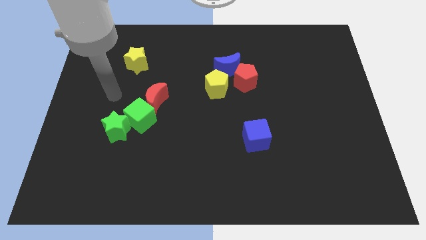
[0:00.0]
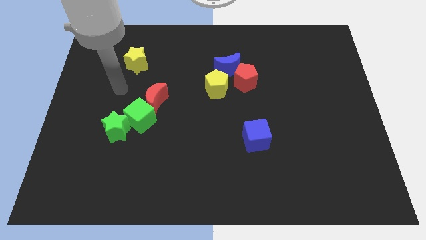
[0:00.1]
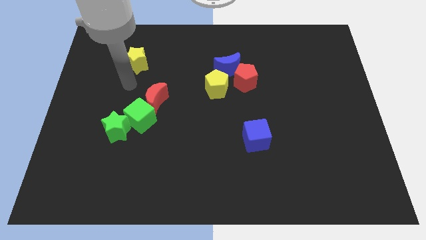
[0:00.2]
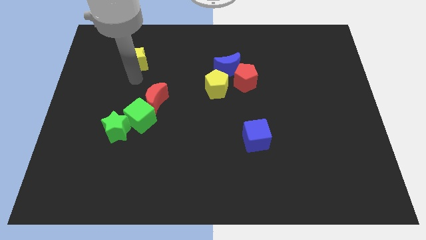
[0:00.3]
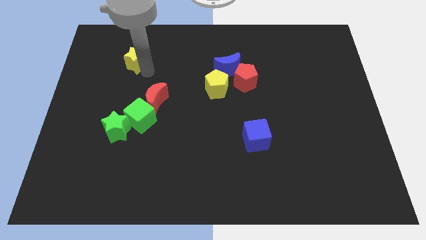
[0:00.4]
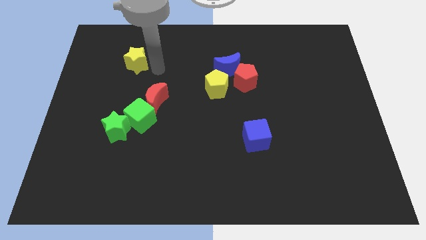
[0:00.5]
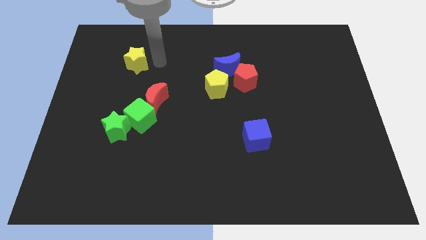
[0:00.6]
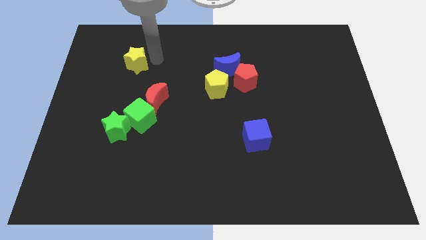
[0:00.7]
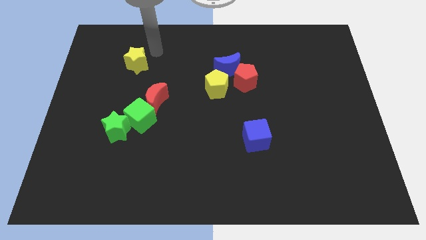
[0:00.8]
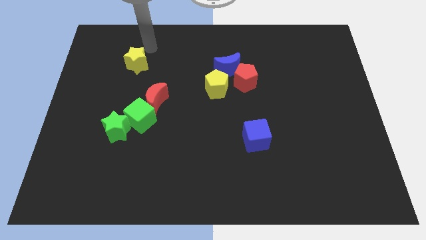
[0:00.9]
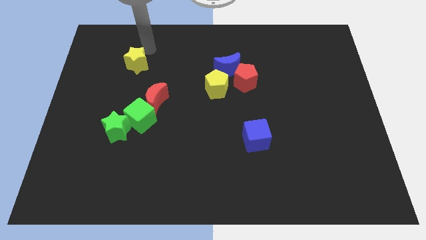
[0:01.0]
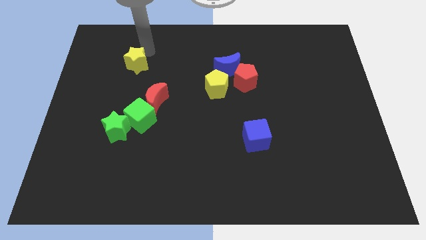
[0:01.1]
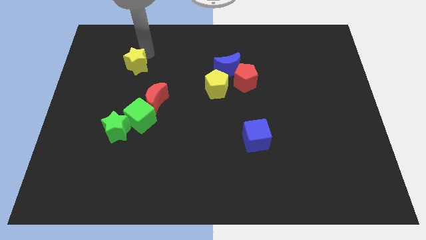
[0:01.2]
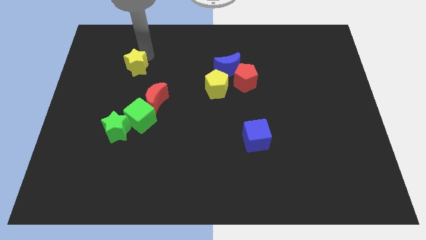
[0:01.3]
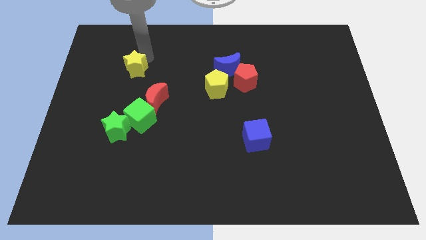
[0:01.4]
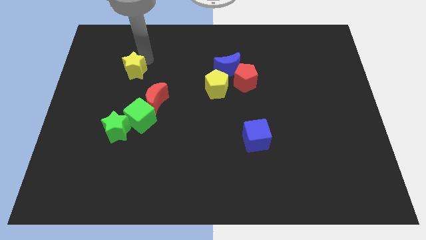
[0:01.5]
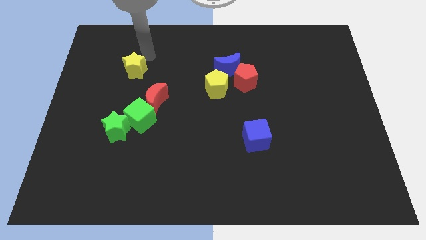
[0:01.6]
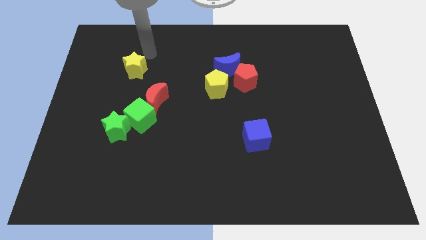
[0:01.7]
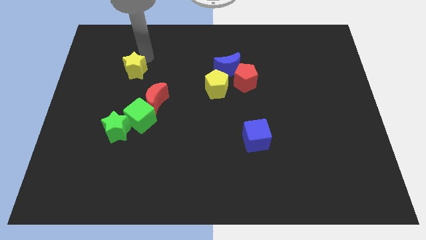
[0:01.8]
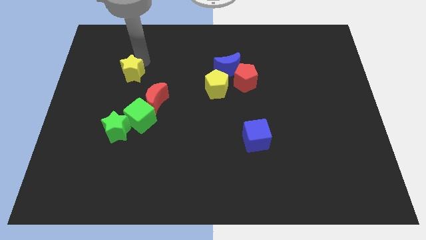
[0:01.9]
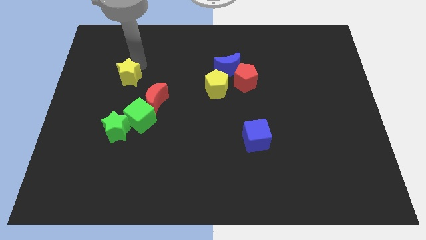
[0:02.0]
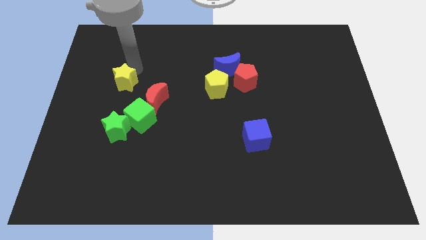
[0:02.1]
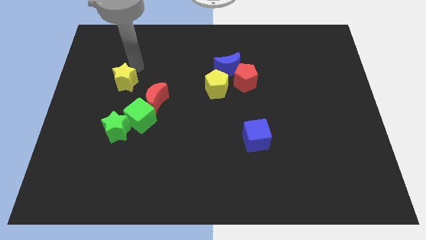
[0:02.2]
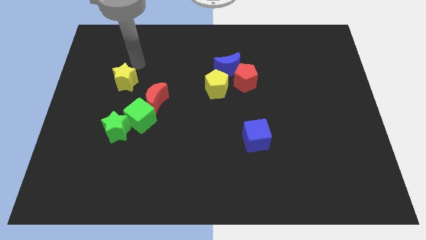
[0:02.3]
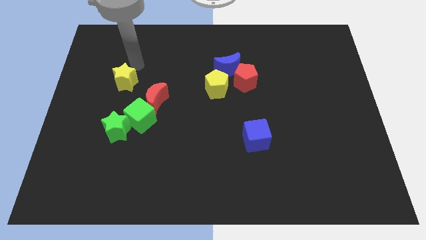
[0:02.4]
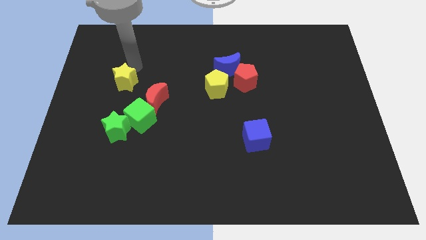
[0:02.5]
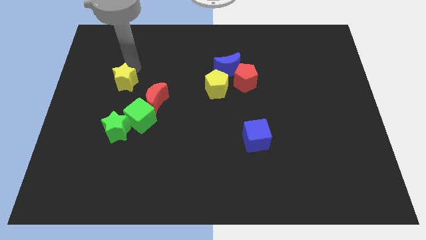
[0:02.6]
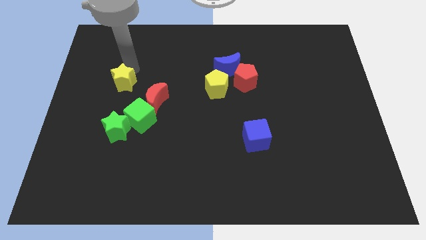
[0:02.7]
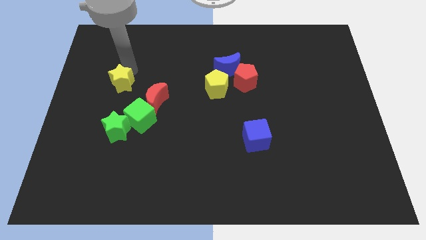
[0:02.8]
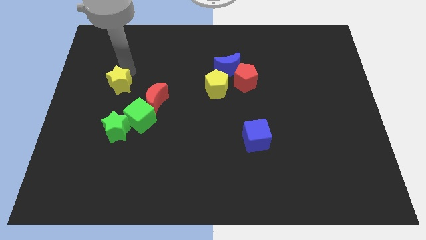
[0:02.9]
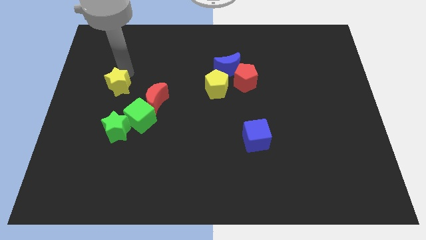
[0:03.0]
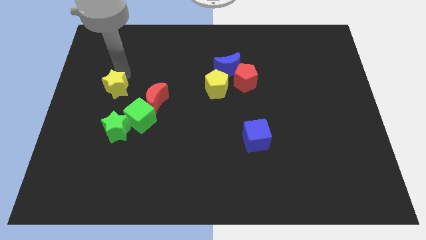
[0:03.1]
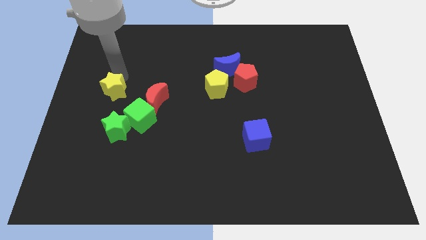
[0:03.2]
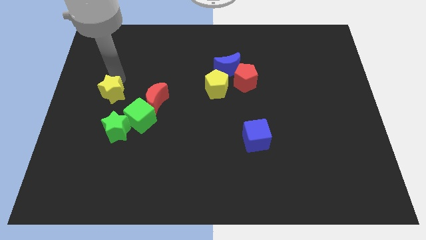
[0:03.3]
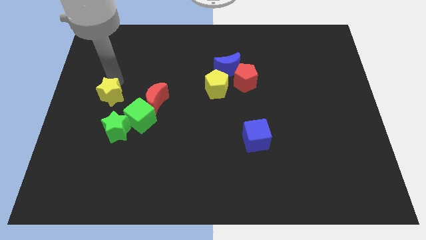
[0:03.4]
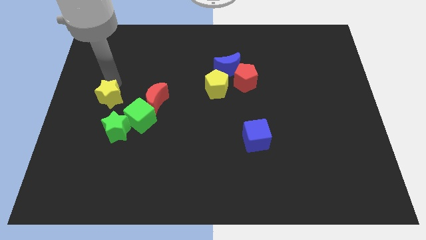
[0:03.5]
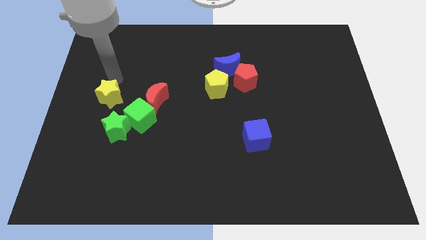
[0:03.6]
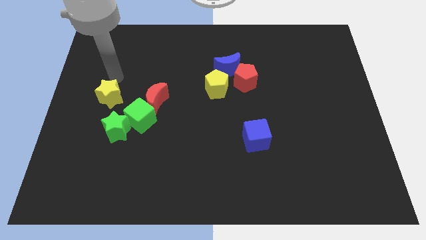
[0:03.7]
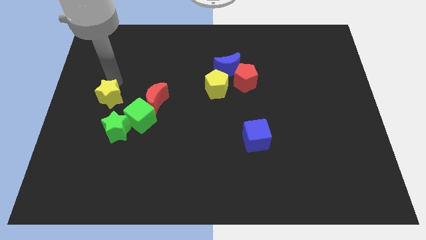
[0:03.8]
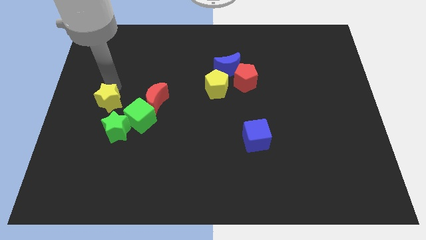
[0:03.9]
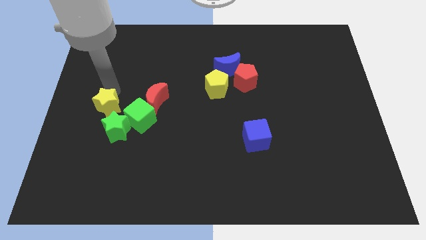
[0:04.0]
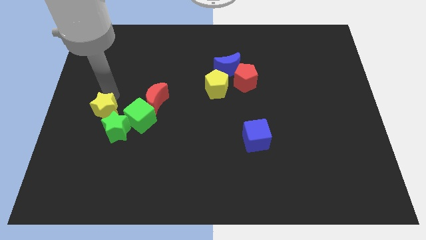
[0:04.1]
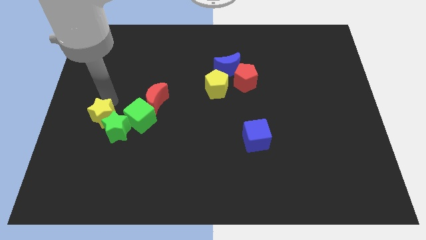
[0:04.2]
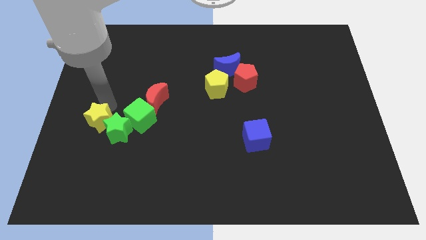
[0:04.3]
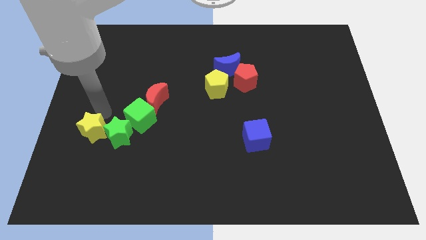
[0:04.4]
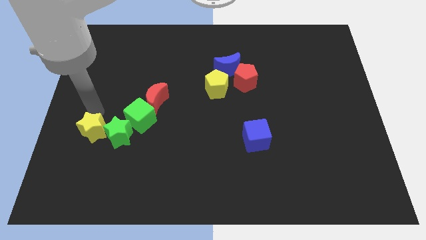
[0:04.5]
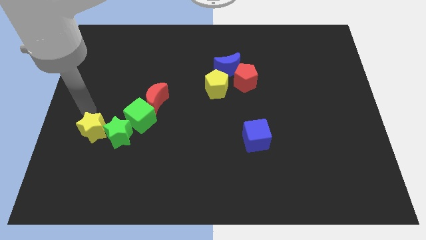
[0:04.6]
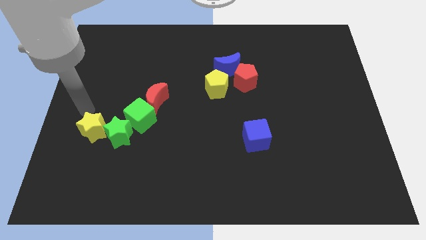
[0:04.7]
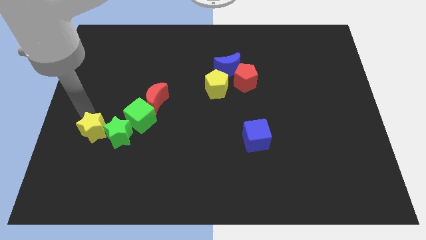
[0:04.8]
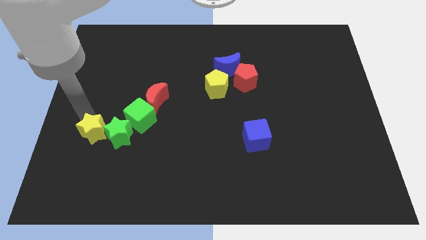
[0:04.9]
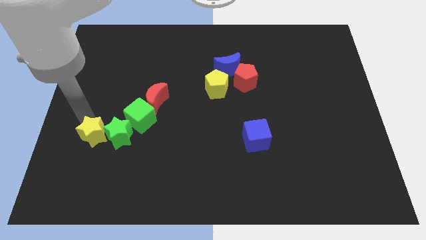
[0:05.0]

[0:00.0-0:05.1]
move the yellow star down

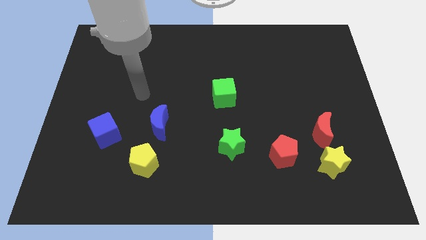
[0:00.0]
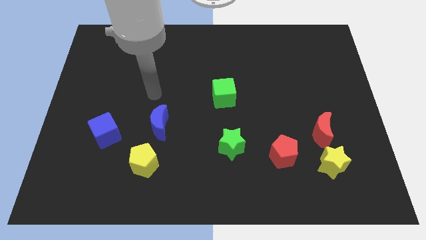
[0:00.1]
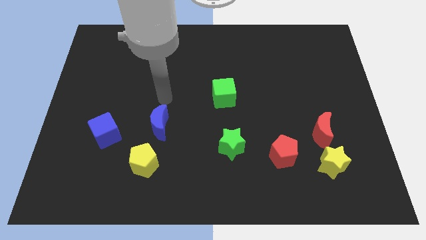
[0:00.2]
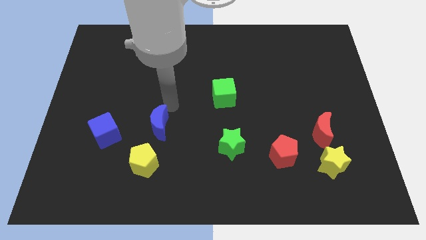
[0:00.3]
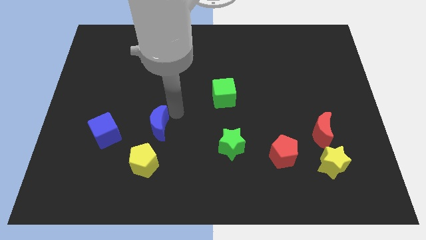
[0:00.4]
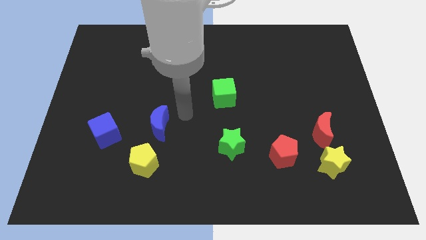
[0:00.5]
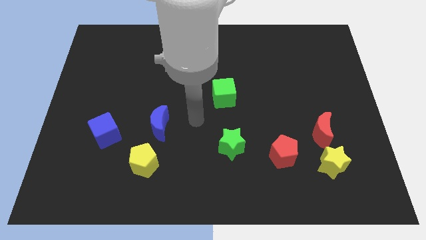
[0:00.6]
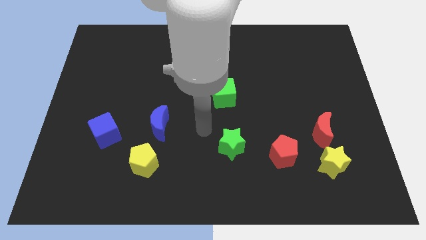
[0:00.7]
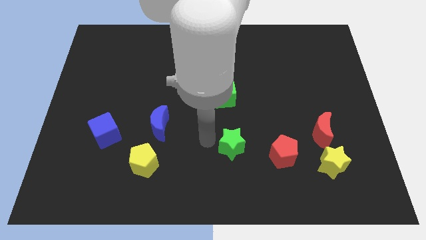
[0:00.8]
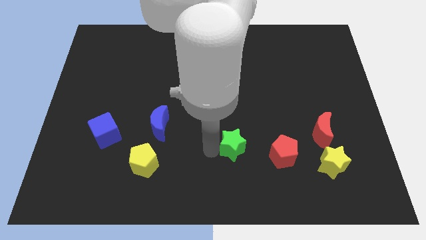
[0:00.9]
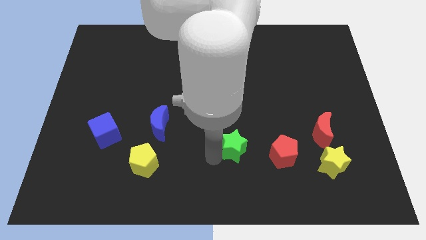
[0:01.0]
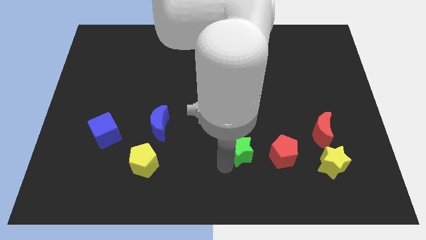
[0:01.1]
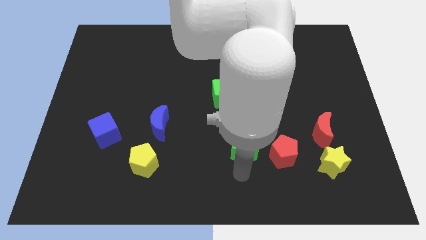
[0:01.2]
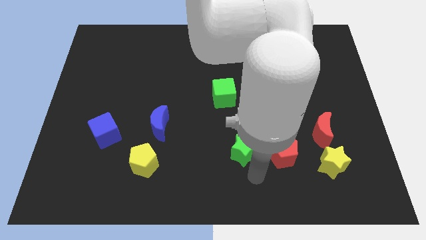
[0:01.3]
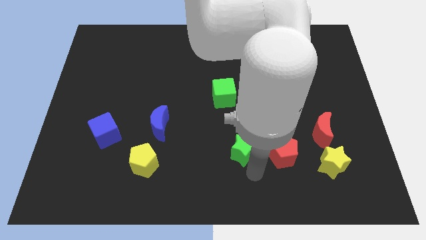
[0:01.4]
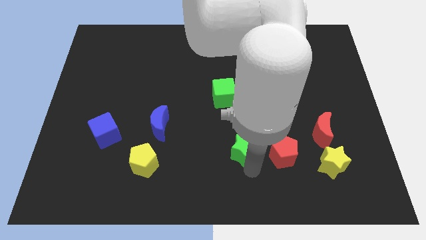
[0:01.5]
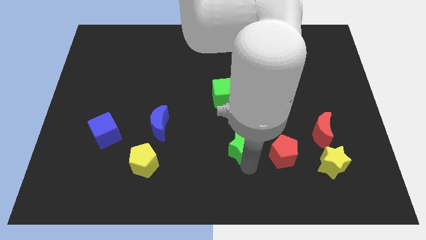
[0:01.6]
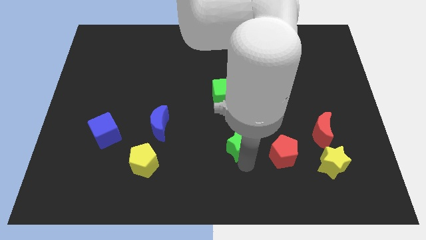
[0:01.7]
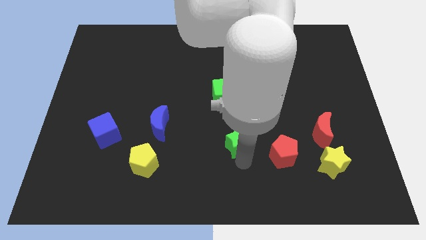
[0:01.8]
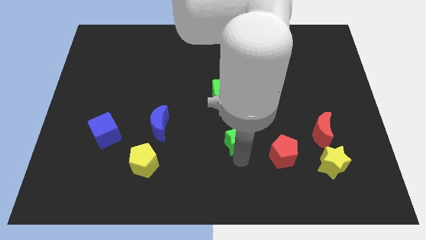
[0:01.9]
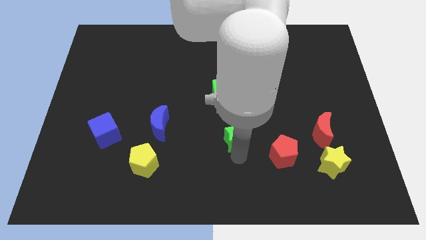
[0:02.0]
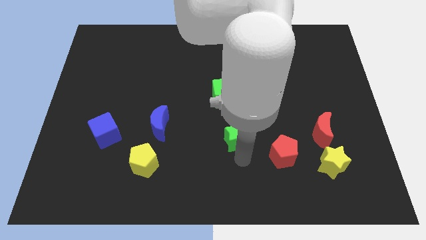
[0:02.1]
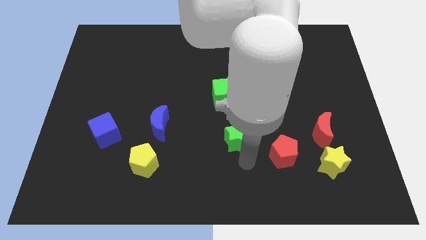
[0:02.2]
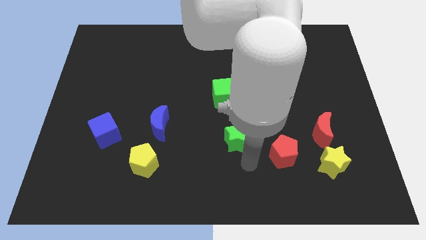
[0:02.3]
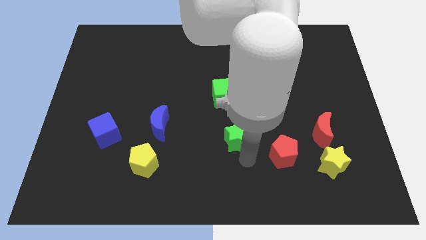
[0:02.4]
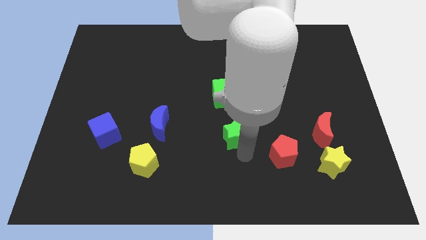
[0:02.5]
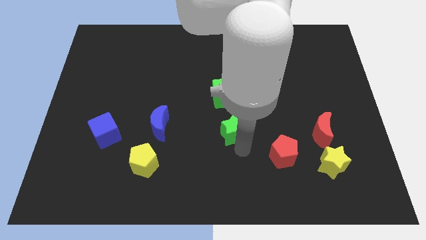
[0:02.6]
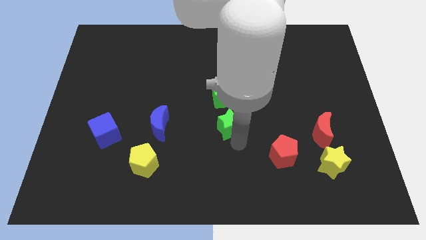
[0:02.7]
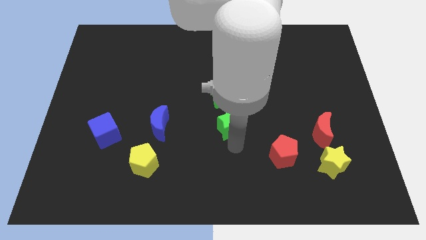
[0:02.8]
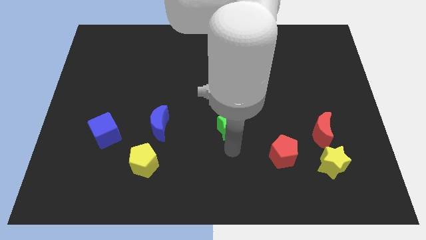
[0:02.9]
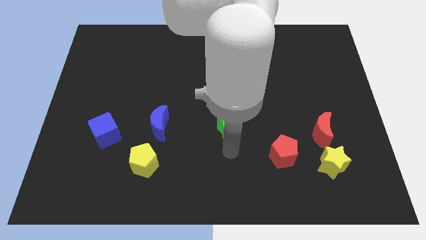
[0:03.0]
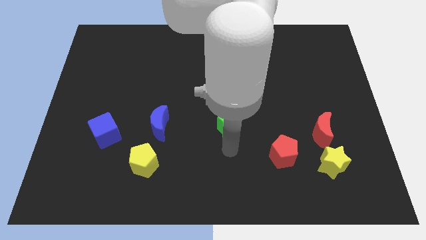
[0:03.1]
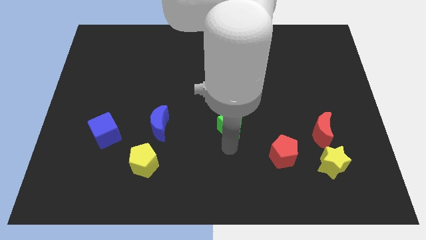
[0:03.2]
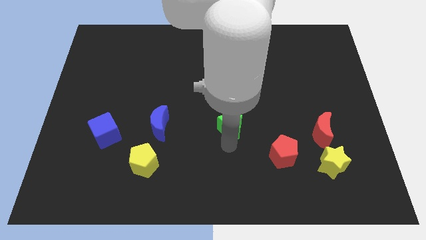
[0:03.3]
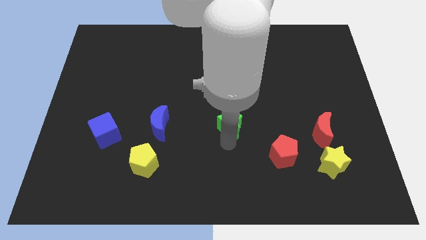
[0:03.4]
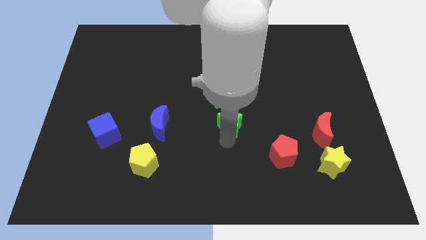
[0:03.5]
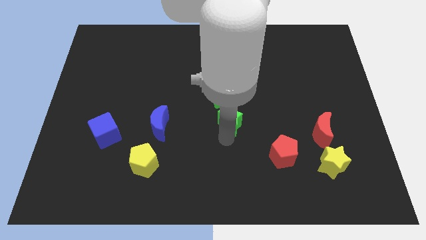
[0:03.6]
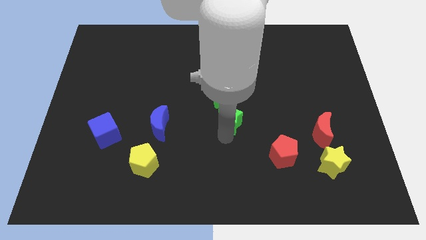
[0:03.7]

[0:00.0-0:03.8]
slide the green star upwards a bit
